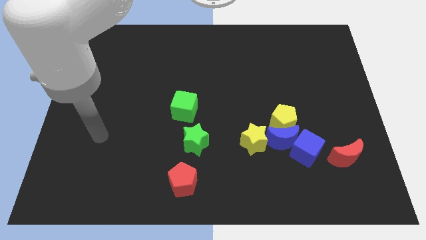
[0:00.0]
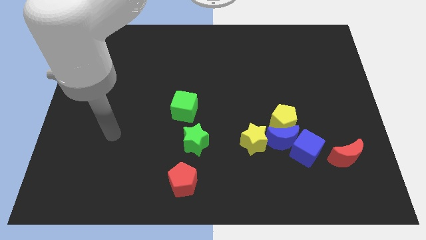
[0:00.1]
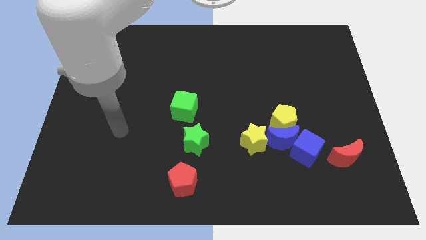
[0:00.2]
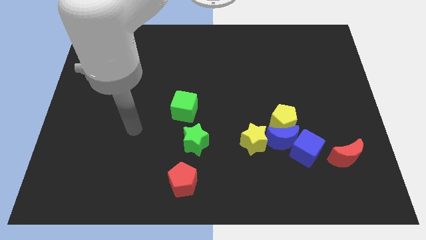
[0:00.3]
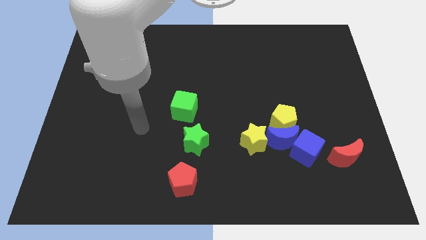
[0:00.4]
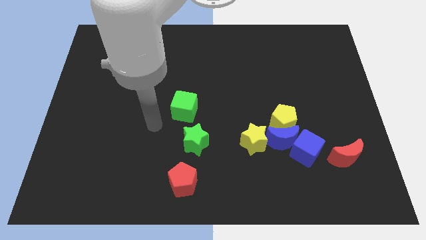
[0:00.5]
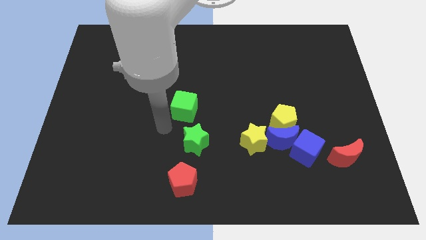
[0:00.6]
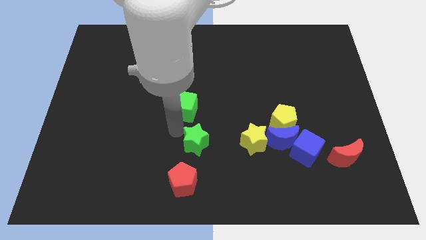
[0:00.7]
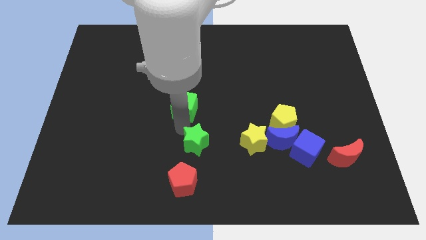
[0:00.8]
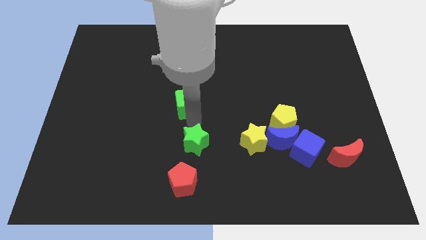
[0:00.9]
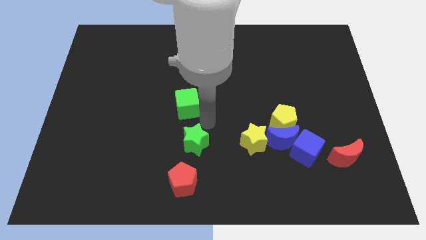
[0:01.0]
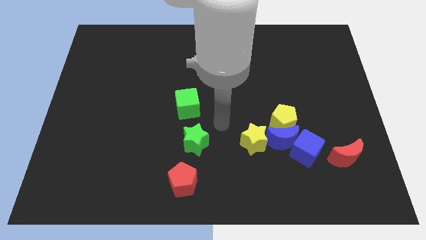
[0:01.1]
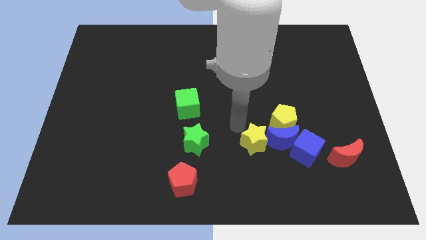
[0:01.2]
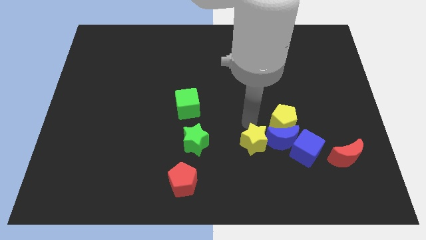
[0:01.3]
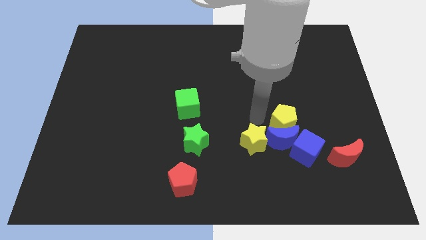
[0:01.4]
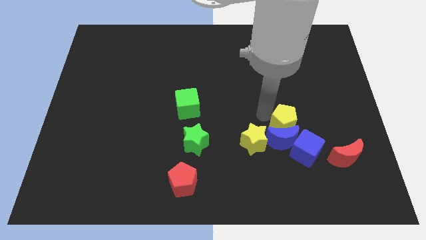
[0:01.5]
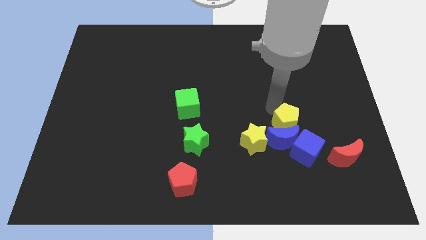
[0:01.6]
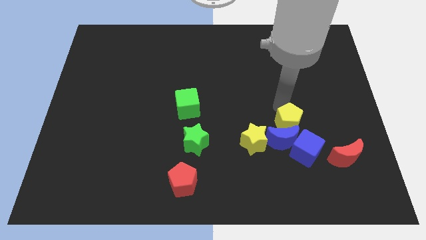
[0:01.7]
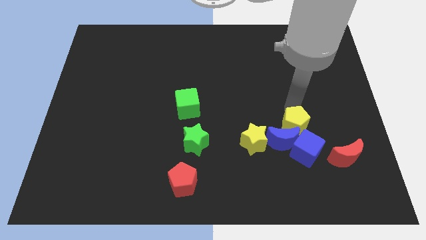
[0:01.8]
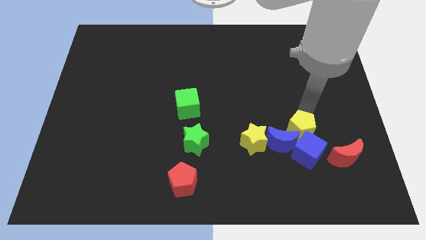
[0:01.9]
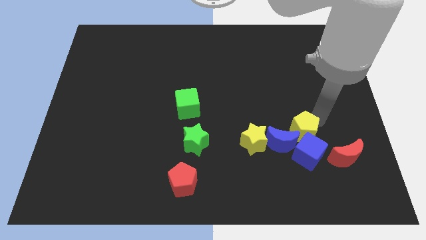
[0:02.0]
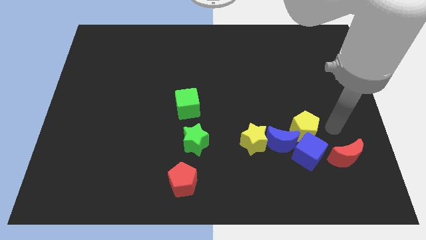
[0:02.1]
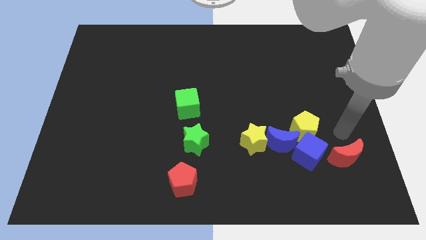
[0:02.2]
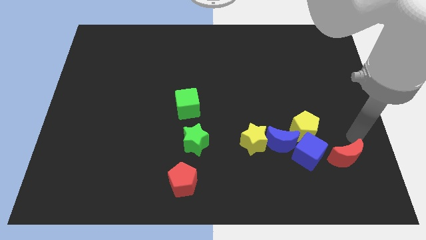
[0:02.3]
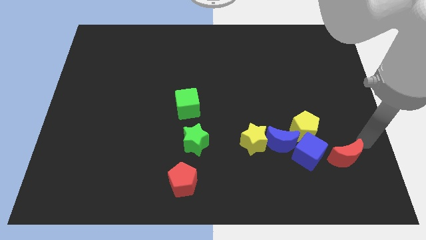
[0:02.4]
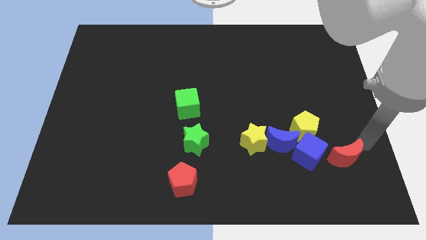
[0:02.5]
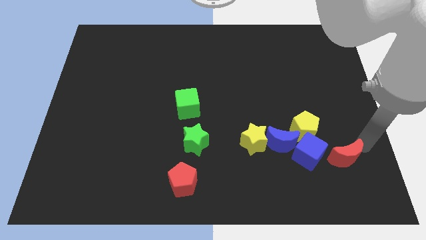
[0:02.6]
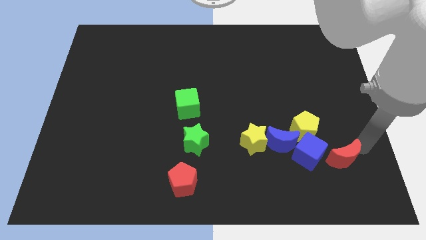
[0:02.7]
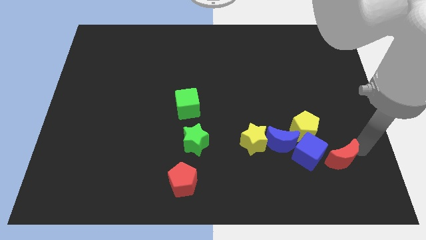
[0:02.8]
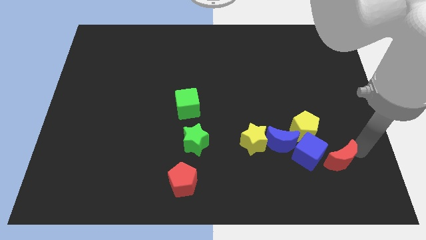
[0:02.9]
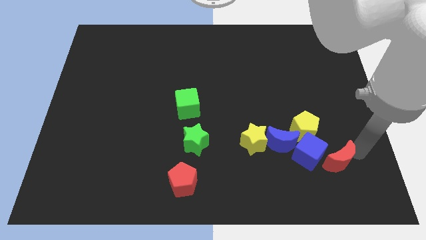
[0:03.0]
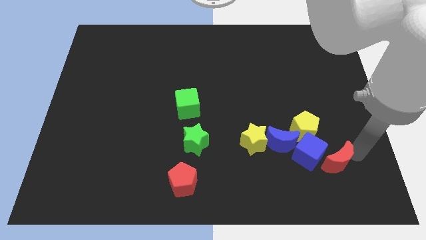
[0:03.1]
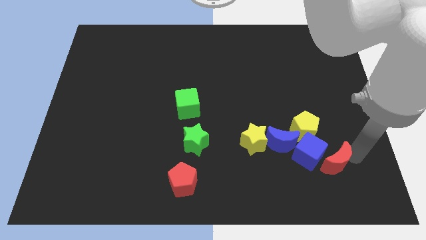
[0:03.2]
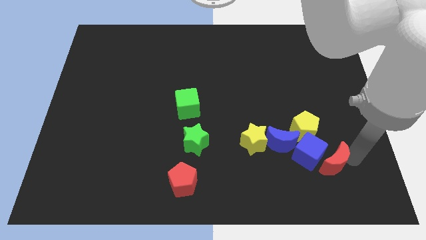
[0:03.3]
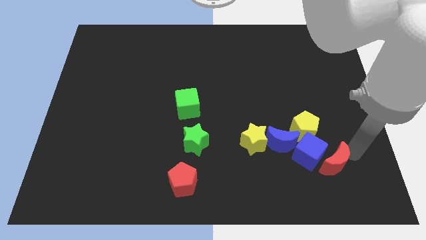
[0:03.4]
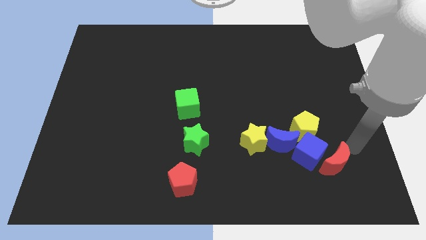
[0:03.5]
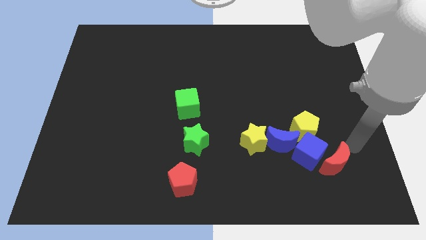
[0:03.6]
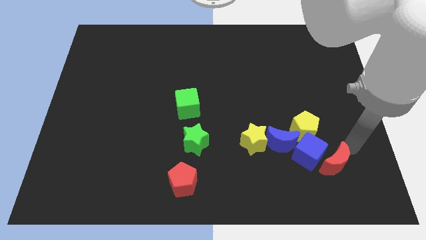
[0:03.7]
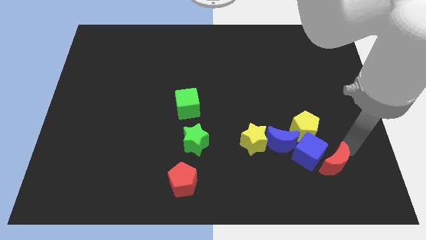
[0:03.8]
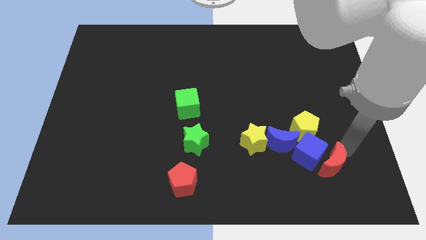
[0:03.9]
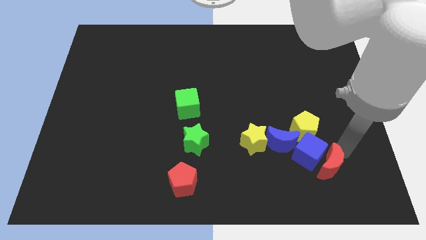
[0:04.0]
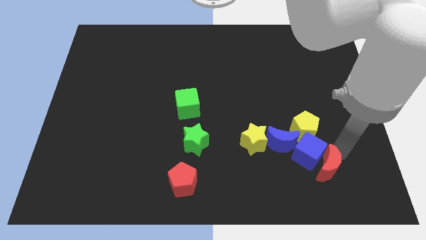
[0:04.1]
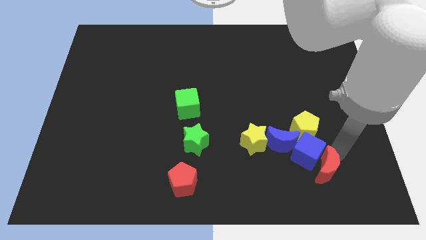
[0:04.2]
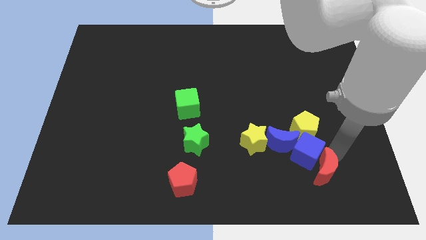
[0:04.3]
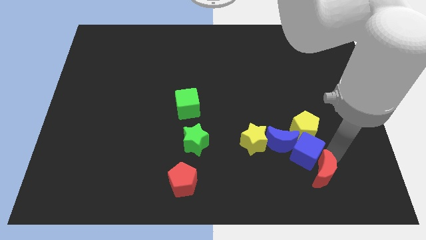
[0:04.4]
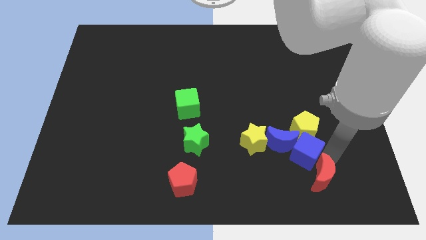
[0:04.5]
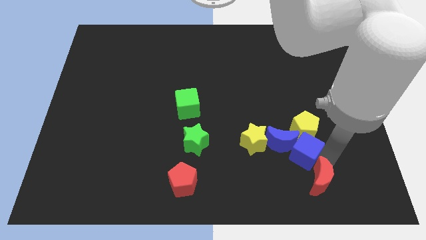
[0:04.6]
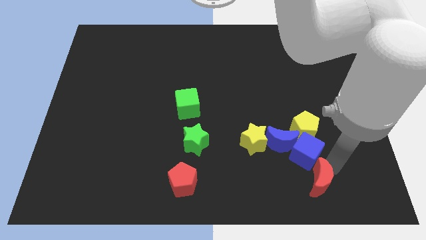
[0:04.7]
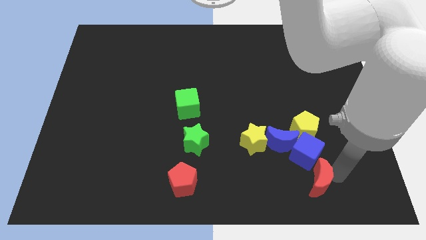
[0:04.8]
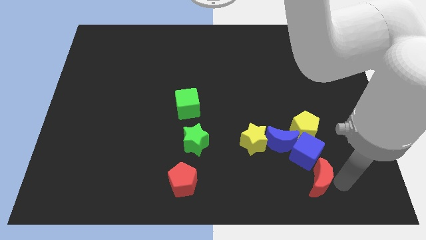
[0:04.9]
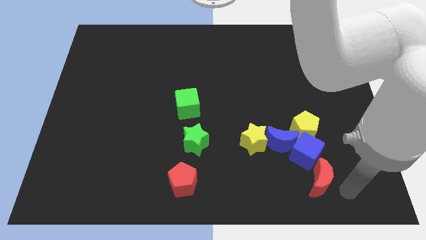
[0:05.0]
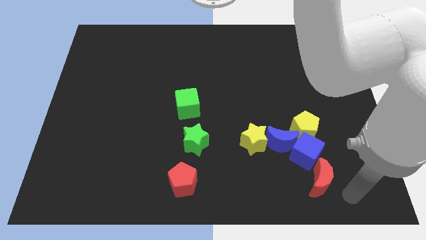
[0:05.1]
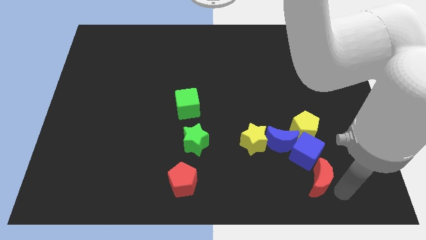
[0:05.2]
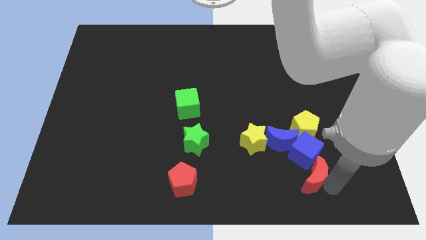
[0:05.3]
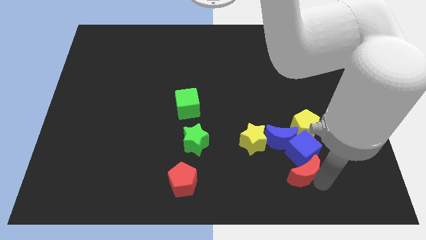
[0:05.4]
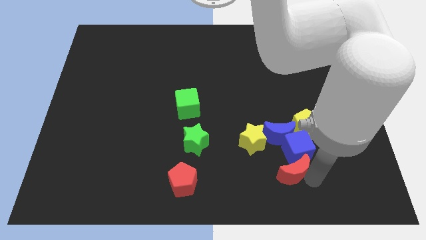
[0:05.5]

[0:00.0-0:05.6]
push the red moon to the bottom right side of the yellow star
